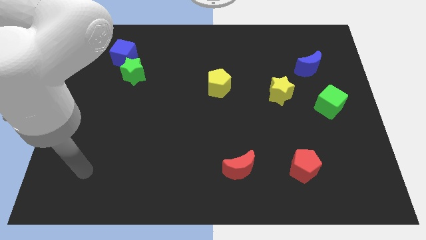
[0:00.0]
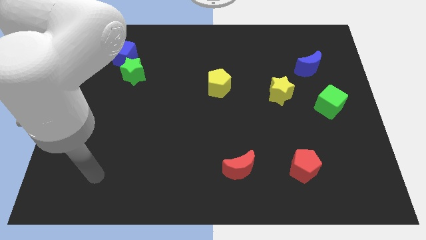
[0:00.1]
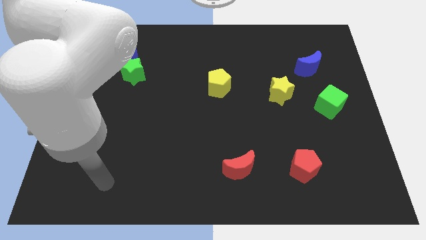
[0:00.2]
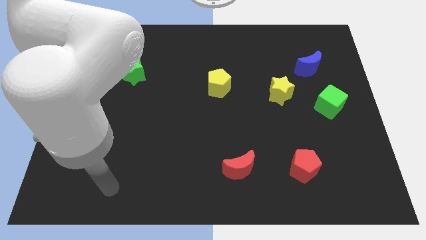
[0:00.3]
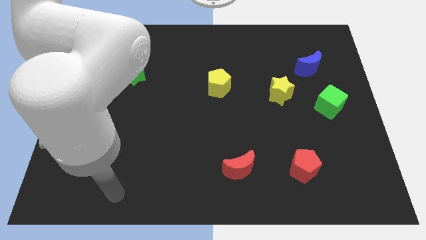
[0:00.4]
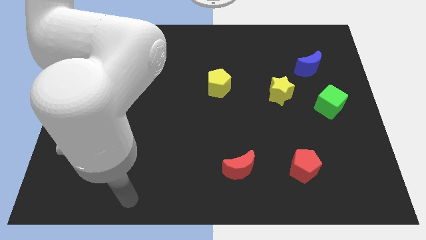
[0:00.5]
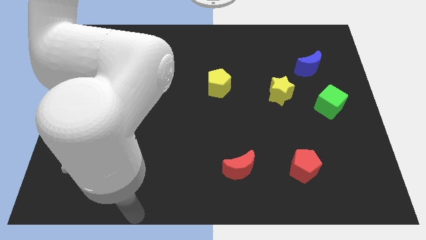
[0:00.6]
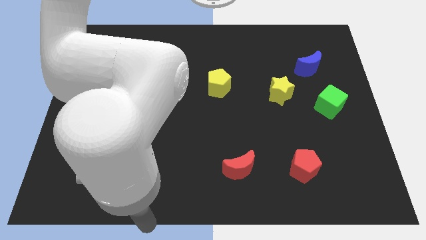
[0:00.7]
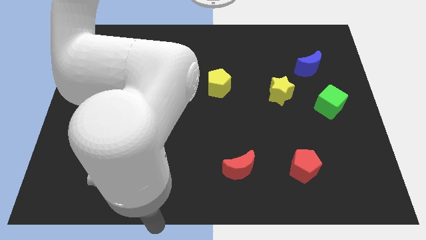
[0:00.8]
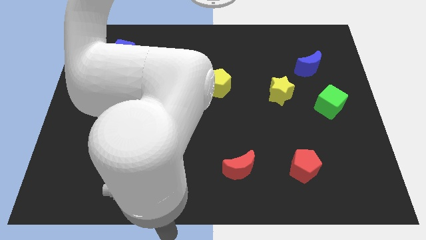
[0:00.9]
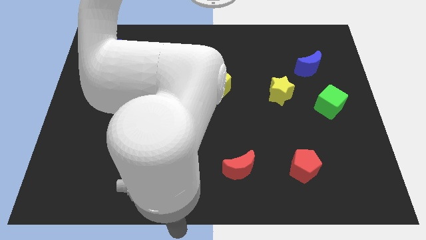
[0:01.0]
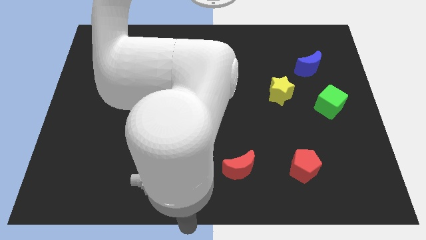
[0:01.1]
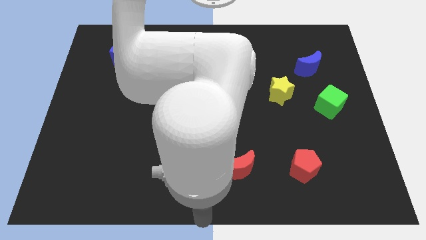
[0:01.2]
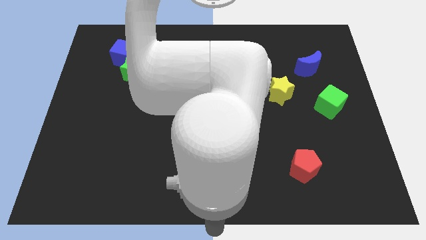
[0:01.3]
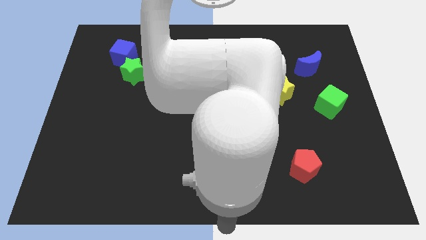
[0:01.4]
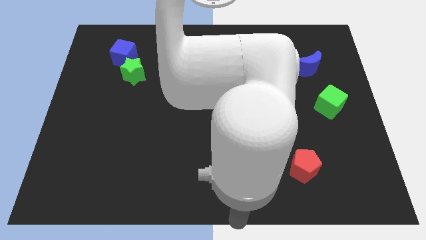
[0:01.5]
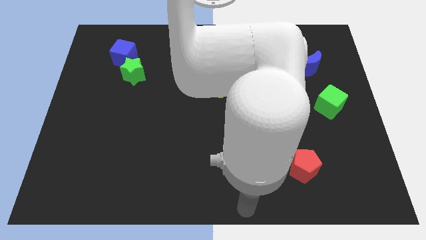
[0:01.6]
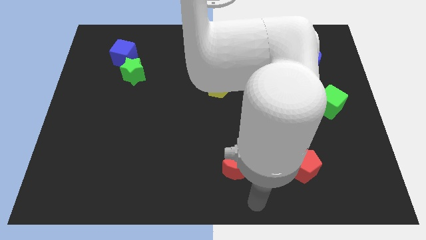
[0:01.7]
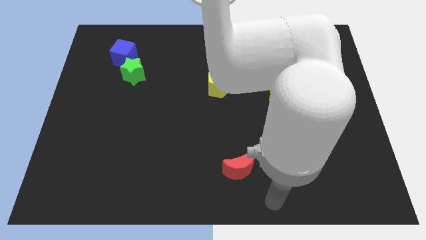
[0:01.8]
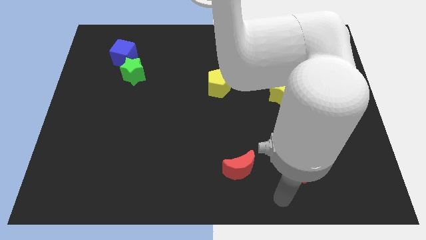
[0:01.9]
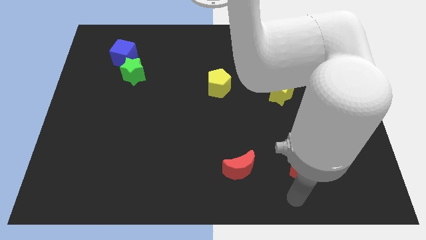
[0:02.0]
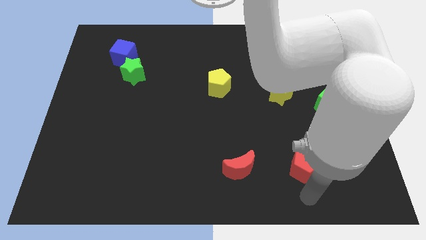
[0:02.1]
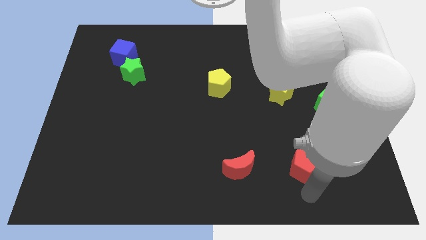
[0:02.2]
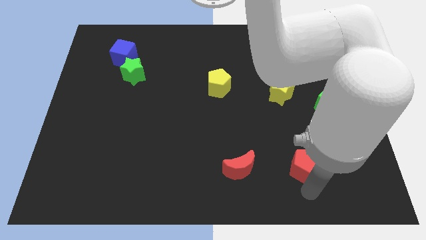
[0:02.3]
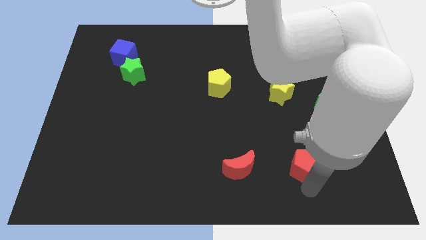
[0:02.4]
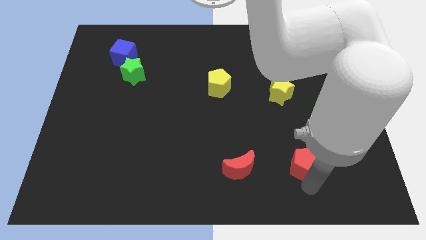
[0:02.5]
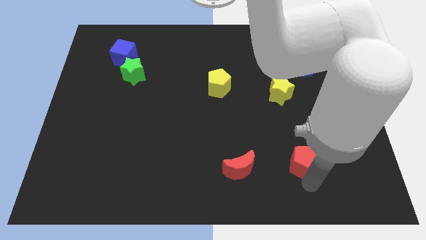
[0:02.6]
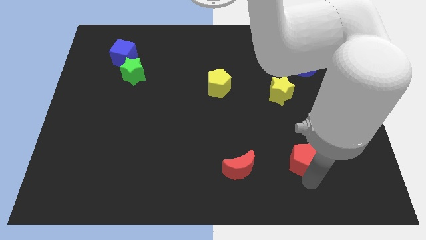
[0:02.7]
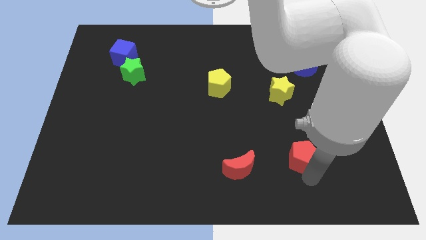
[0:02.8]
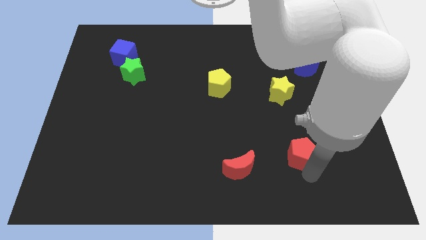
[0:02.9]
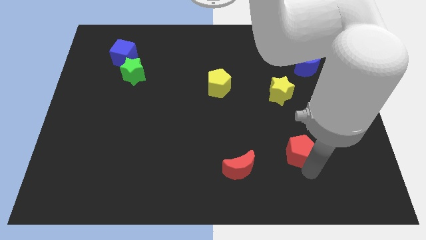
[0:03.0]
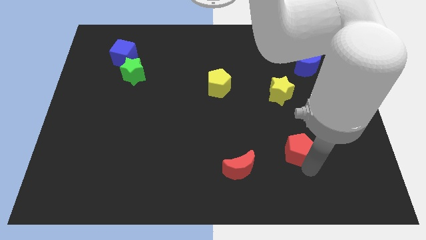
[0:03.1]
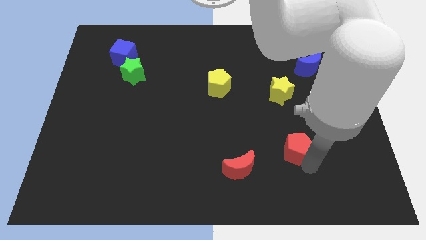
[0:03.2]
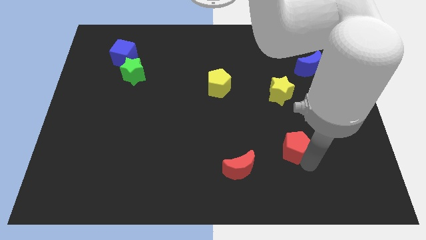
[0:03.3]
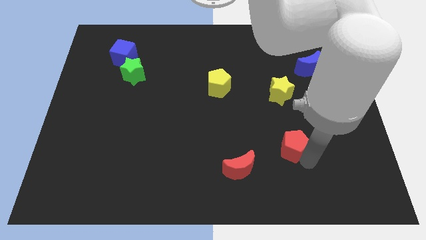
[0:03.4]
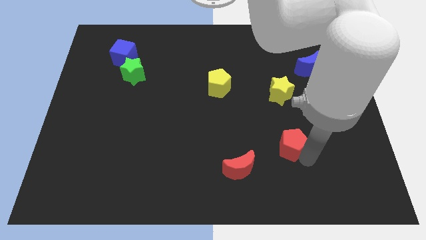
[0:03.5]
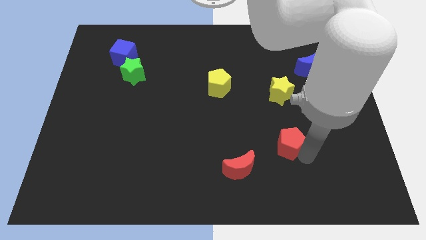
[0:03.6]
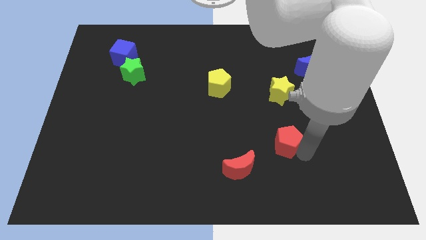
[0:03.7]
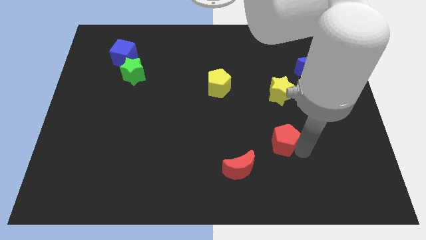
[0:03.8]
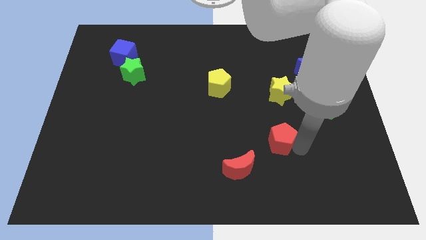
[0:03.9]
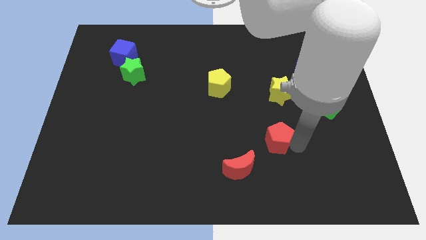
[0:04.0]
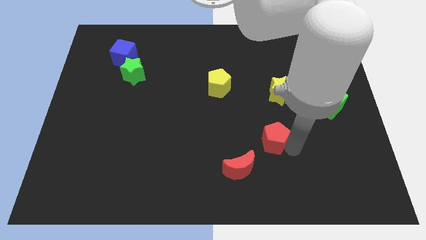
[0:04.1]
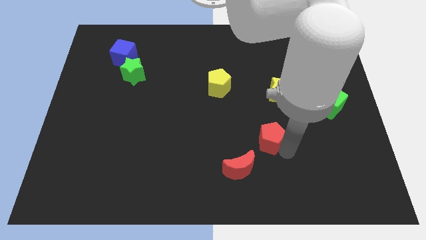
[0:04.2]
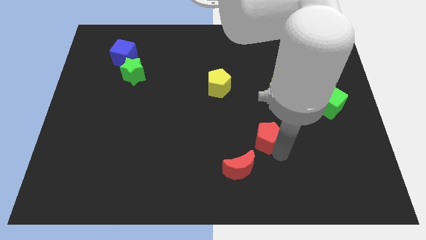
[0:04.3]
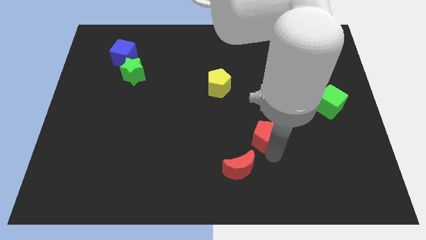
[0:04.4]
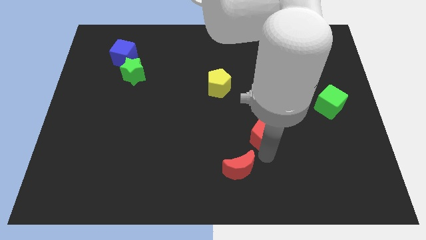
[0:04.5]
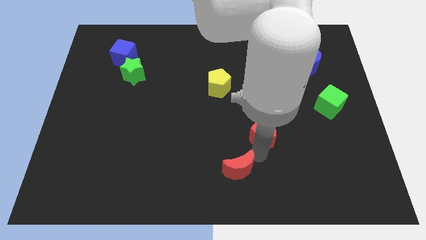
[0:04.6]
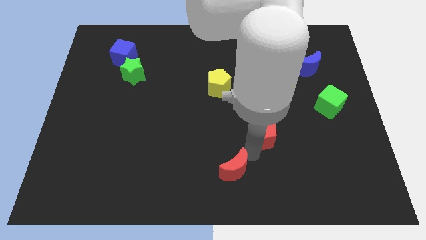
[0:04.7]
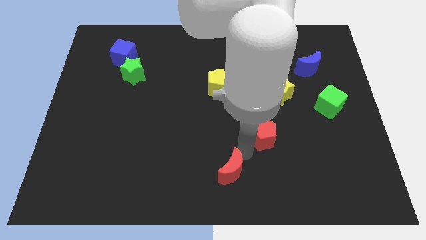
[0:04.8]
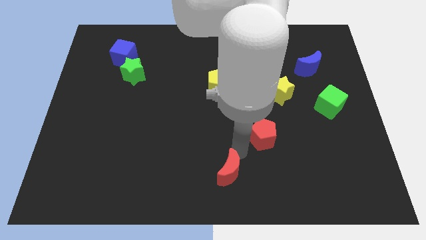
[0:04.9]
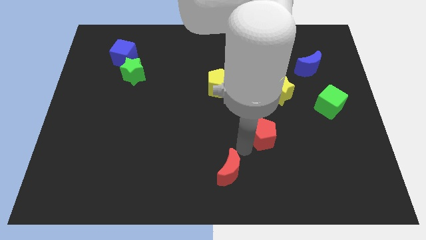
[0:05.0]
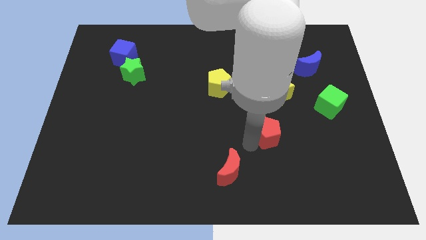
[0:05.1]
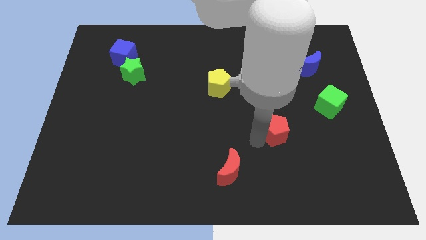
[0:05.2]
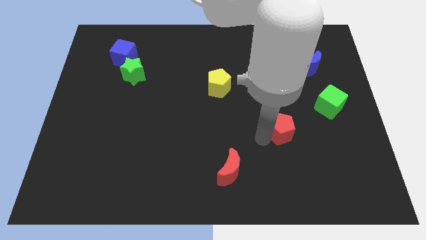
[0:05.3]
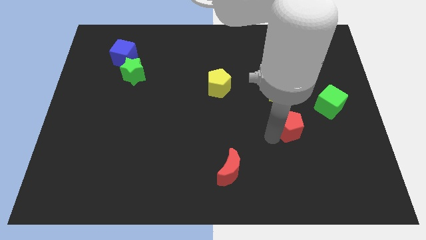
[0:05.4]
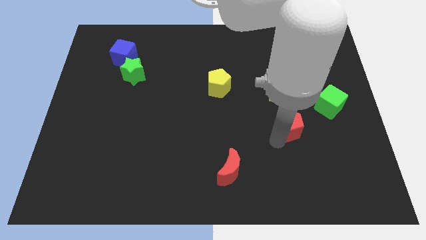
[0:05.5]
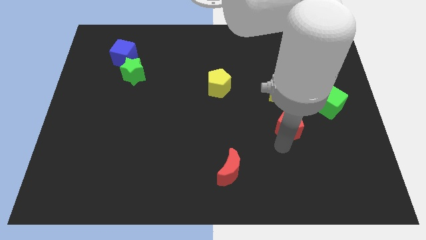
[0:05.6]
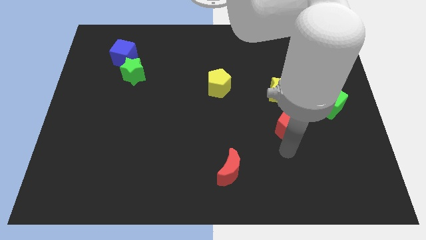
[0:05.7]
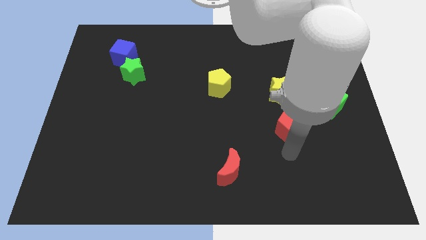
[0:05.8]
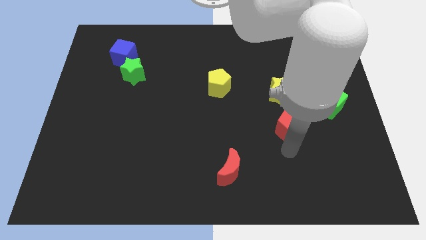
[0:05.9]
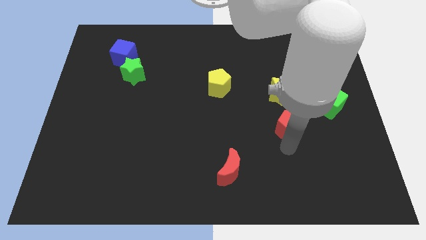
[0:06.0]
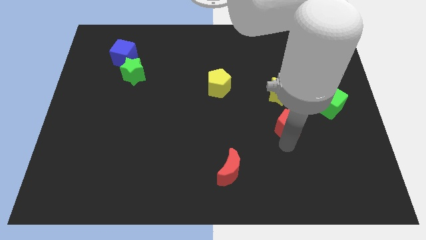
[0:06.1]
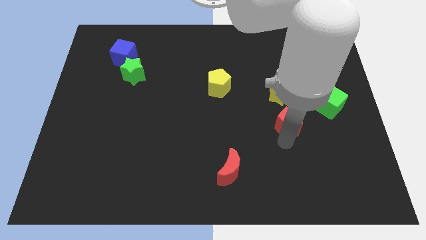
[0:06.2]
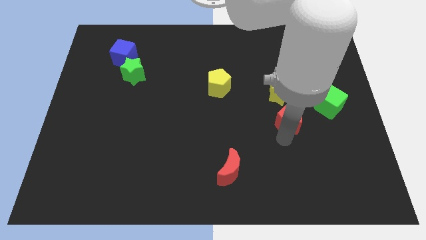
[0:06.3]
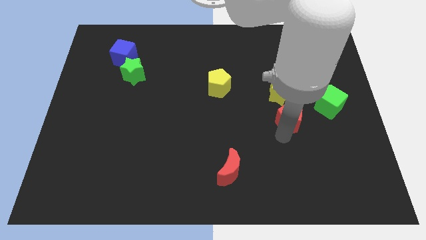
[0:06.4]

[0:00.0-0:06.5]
move the red pentagon just left of the green cube
